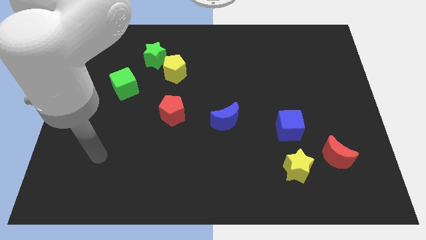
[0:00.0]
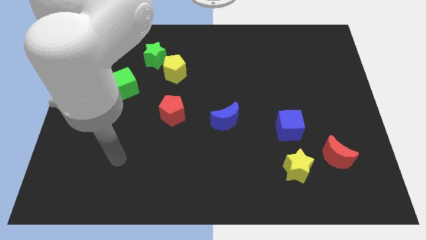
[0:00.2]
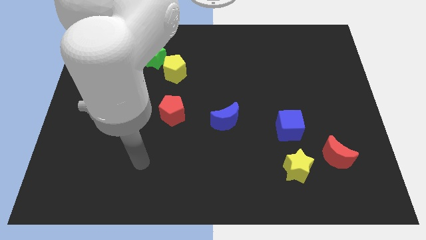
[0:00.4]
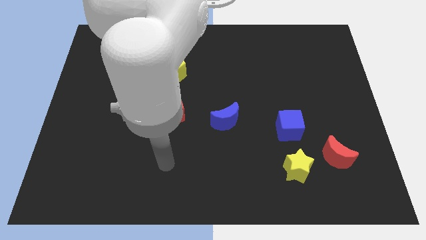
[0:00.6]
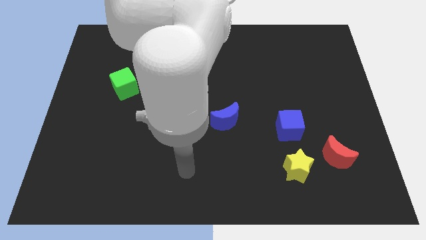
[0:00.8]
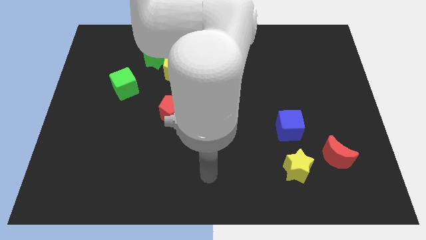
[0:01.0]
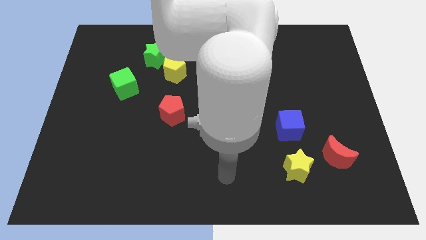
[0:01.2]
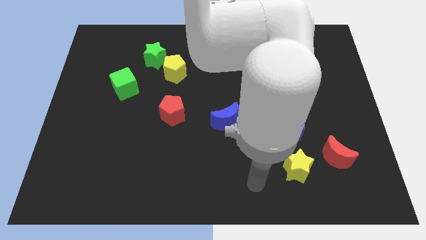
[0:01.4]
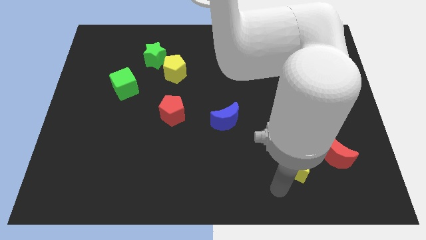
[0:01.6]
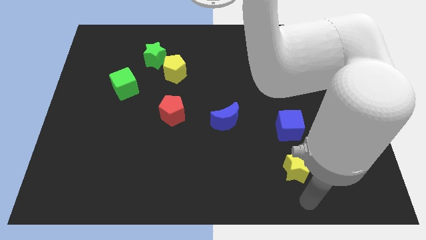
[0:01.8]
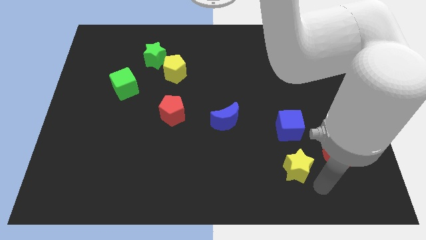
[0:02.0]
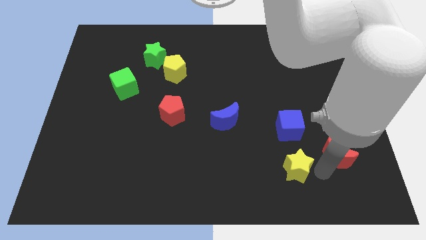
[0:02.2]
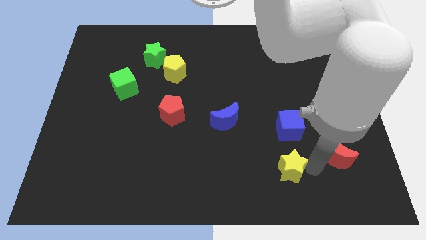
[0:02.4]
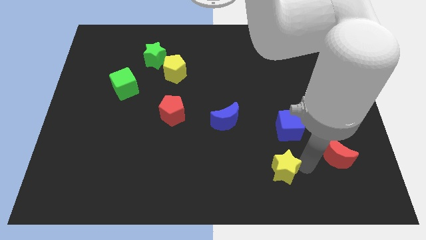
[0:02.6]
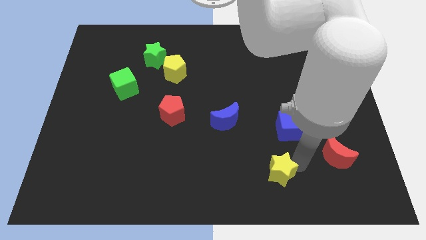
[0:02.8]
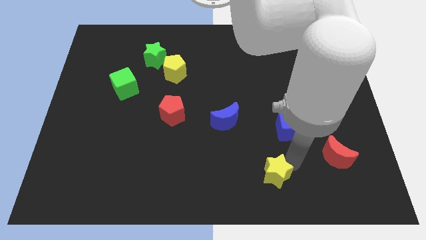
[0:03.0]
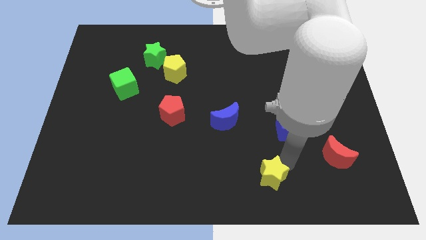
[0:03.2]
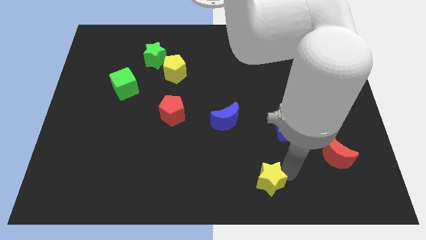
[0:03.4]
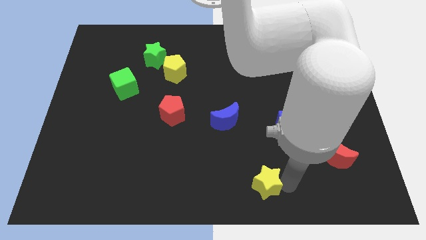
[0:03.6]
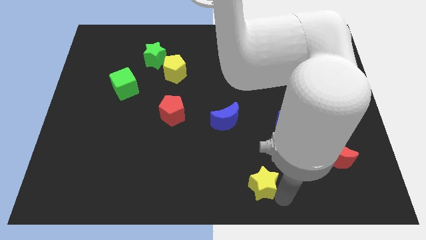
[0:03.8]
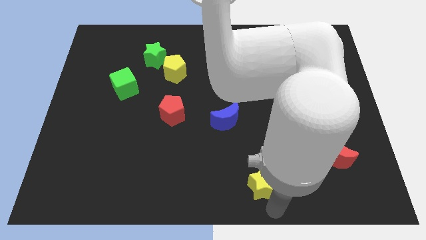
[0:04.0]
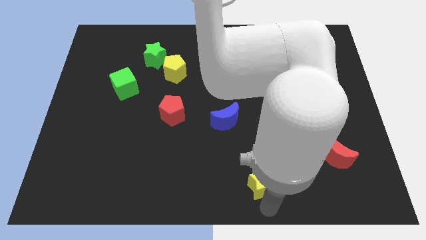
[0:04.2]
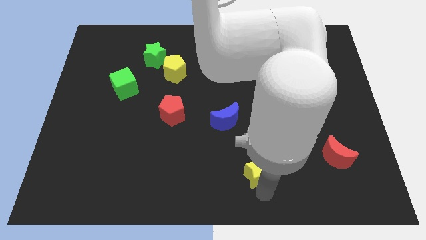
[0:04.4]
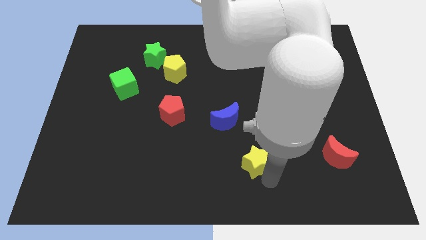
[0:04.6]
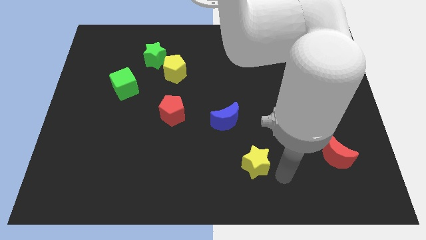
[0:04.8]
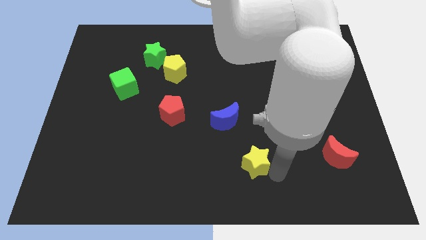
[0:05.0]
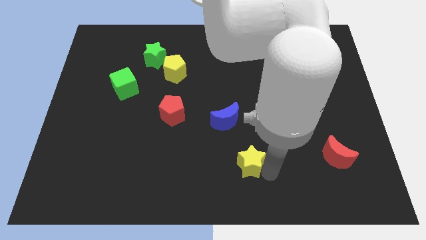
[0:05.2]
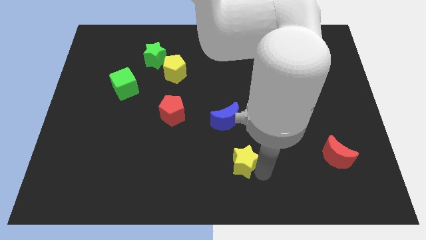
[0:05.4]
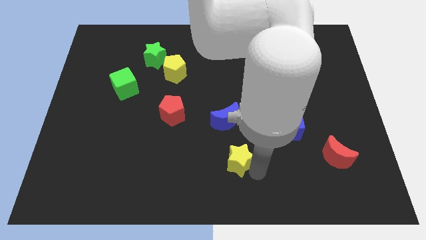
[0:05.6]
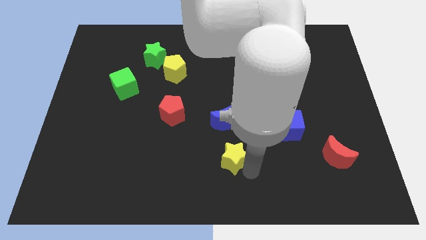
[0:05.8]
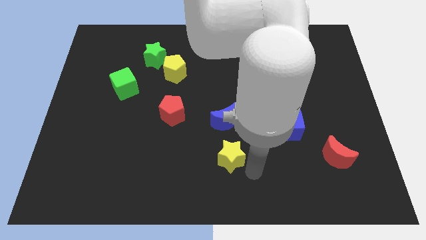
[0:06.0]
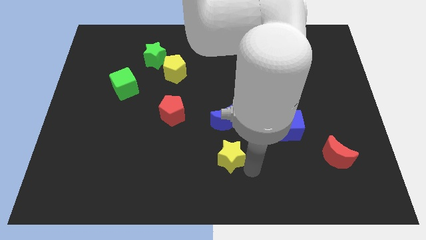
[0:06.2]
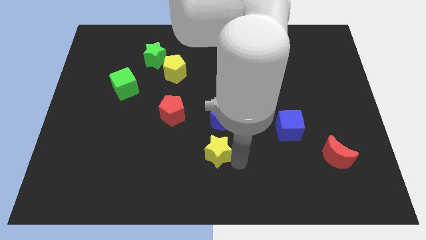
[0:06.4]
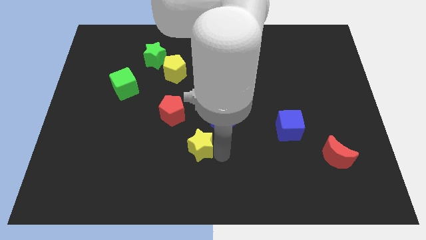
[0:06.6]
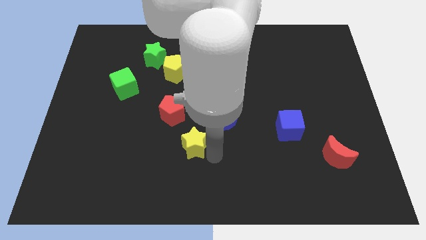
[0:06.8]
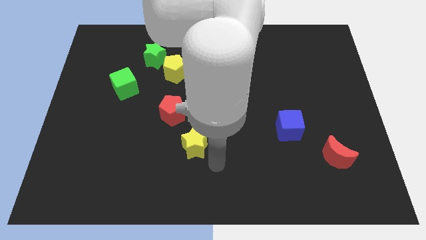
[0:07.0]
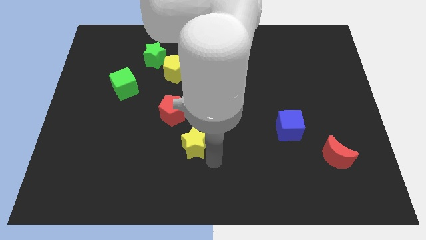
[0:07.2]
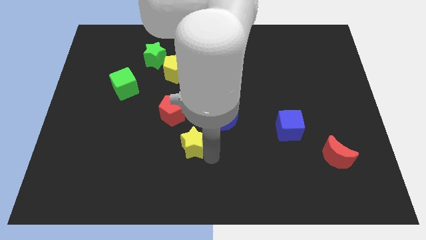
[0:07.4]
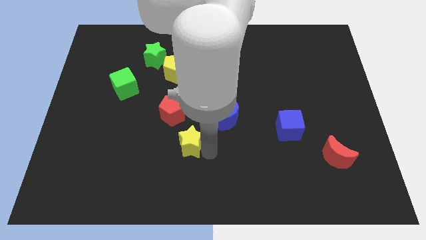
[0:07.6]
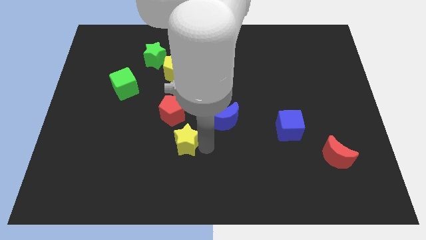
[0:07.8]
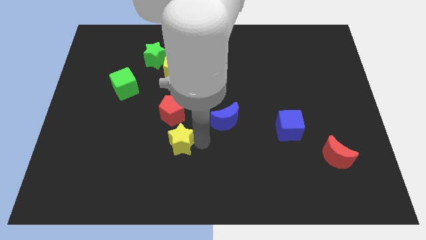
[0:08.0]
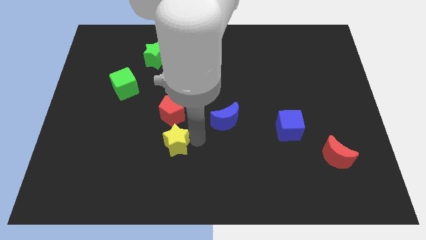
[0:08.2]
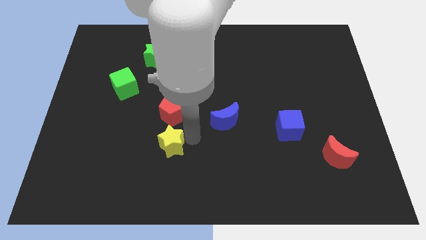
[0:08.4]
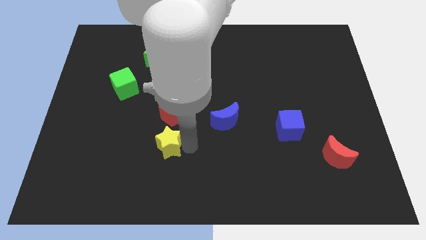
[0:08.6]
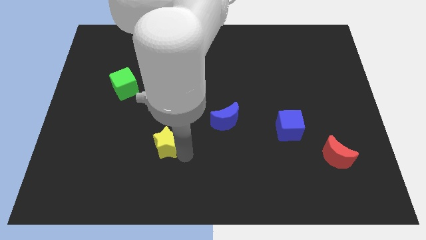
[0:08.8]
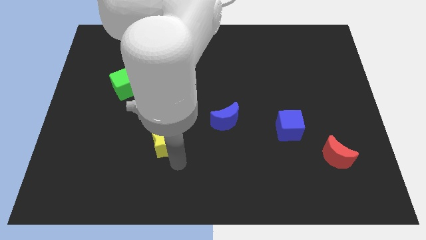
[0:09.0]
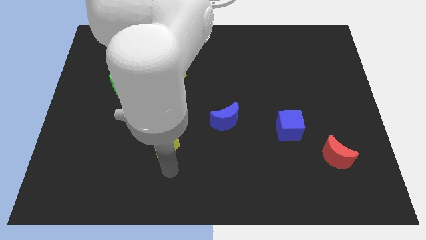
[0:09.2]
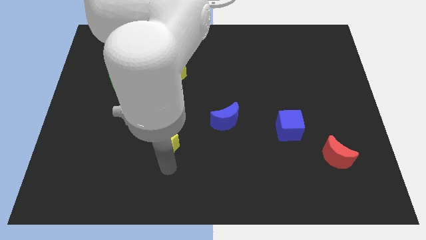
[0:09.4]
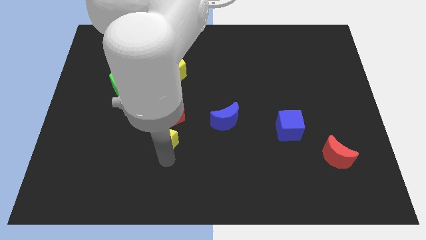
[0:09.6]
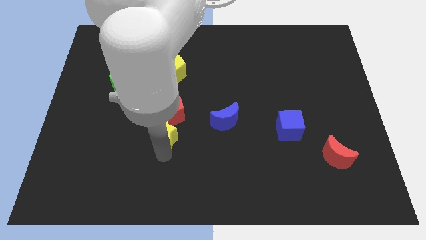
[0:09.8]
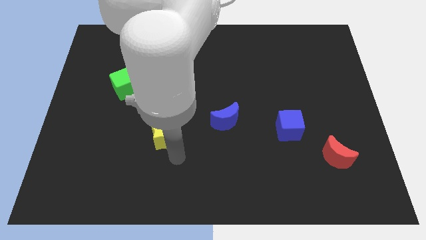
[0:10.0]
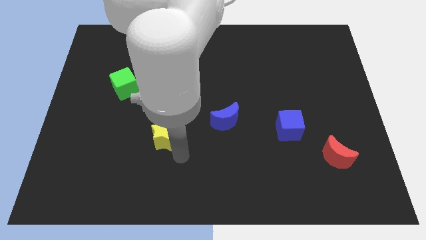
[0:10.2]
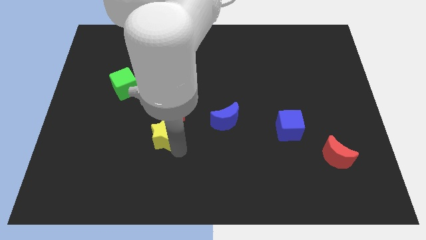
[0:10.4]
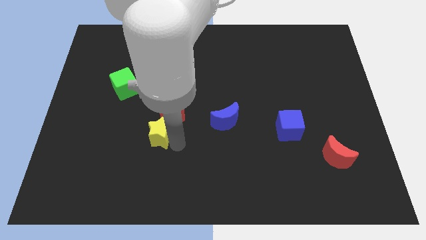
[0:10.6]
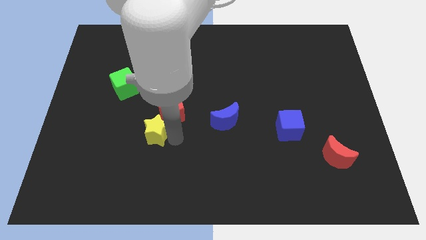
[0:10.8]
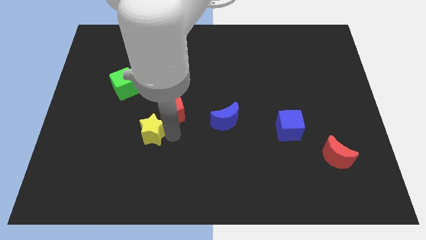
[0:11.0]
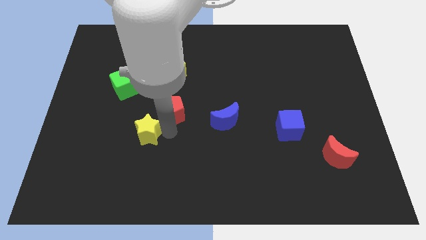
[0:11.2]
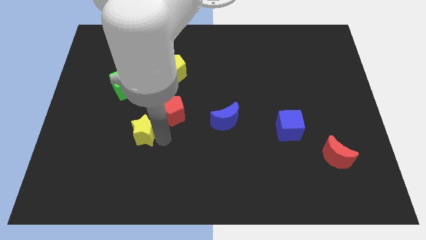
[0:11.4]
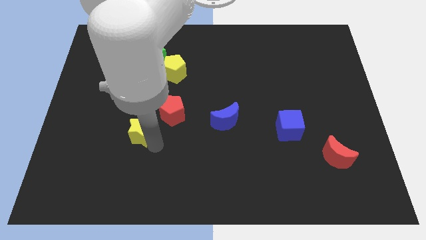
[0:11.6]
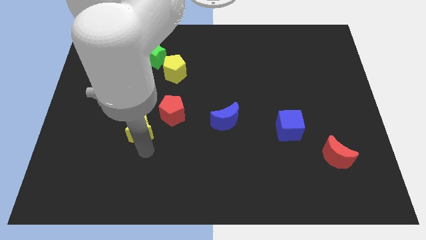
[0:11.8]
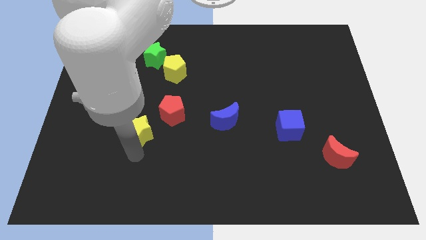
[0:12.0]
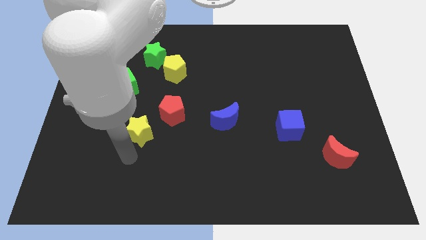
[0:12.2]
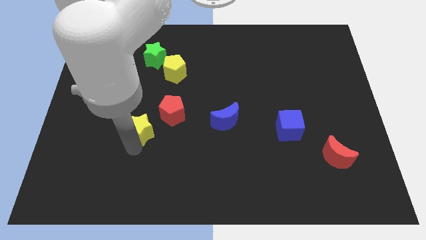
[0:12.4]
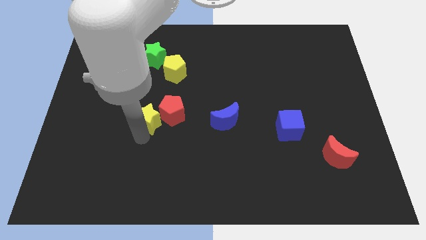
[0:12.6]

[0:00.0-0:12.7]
move the yellow star diagonally down and to the right of the green cube
